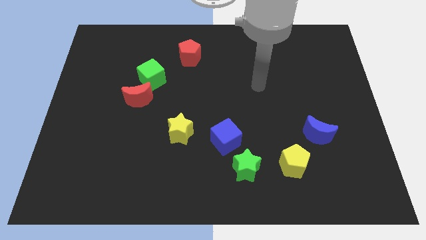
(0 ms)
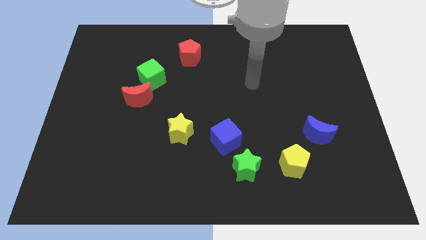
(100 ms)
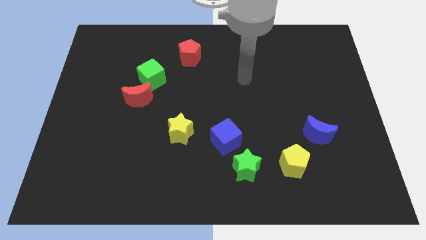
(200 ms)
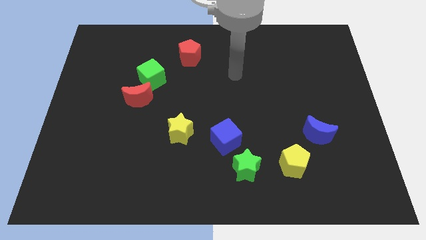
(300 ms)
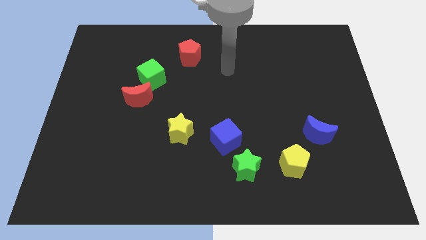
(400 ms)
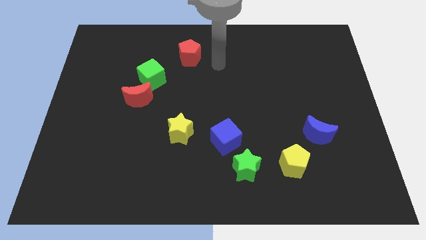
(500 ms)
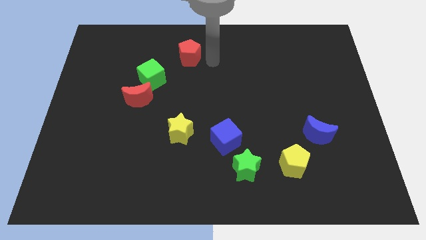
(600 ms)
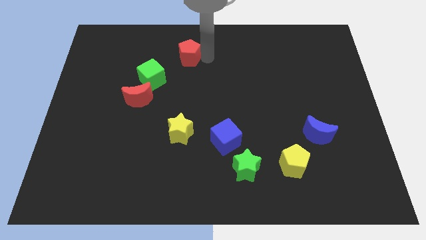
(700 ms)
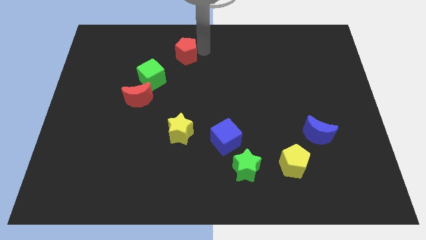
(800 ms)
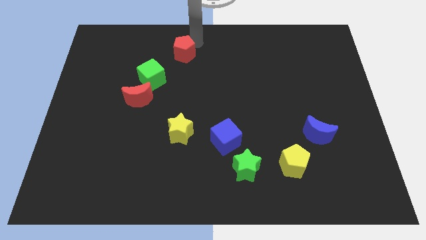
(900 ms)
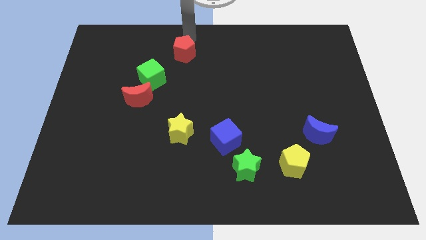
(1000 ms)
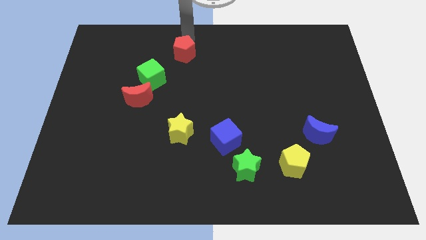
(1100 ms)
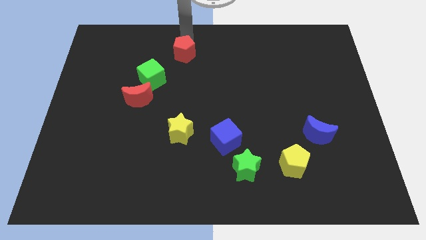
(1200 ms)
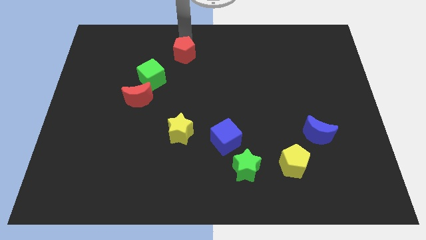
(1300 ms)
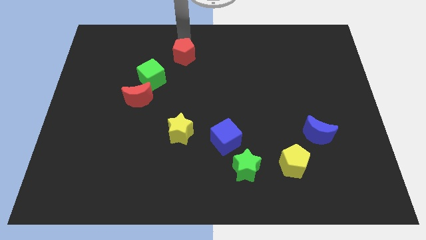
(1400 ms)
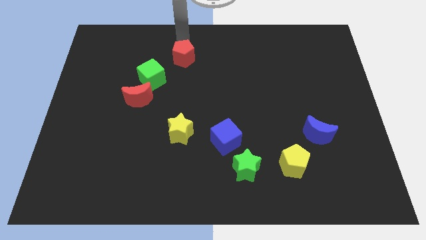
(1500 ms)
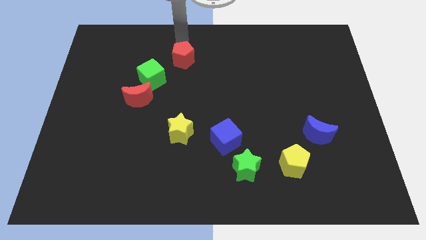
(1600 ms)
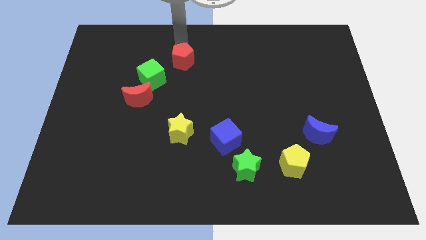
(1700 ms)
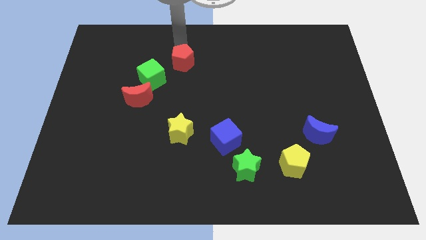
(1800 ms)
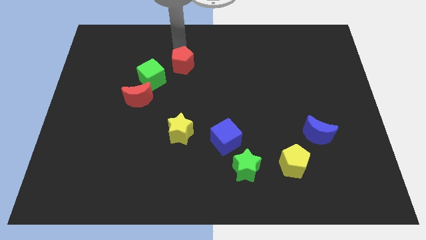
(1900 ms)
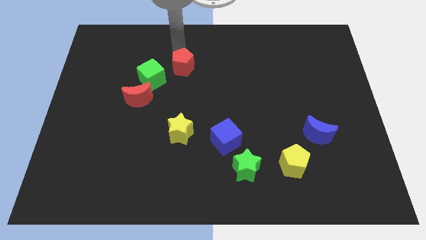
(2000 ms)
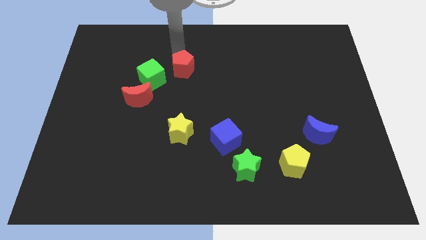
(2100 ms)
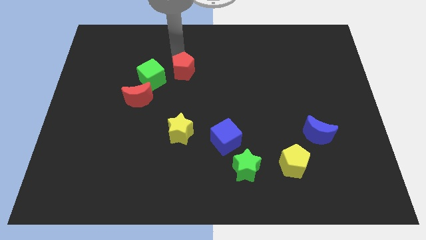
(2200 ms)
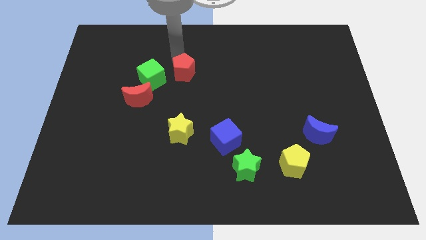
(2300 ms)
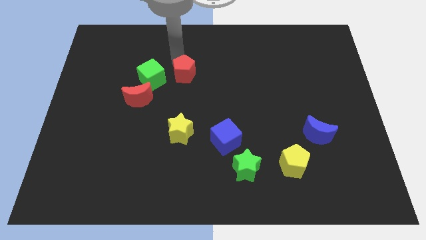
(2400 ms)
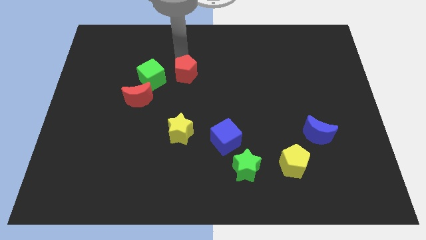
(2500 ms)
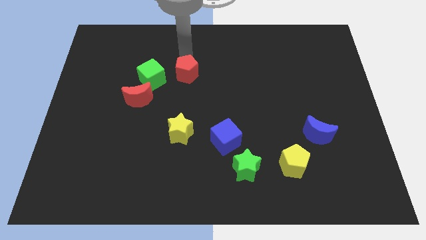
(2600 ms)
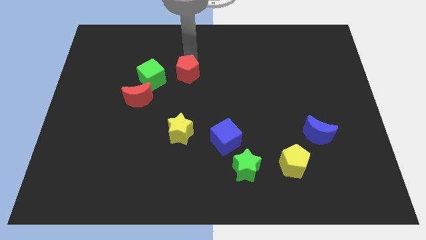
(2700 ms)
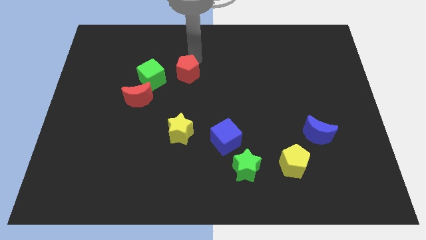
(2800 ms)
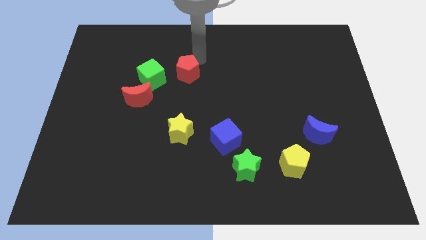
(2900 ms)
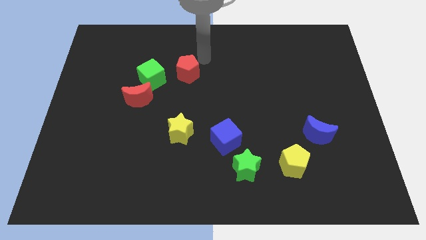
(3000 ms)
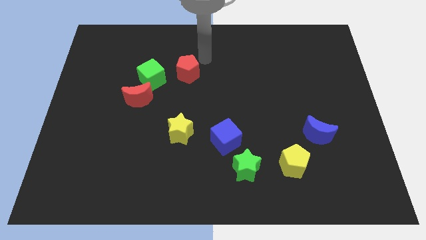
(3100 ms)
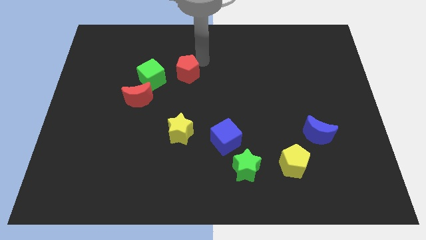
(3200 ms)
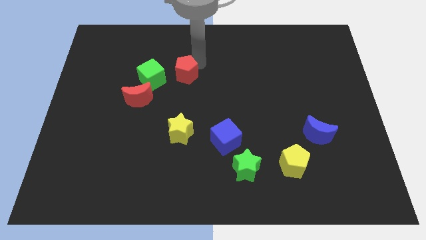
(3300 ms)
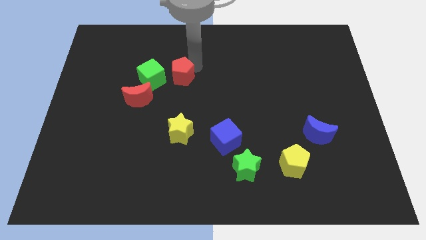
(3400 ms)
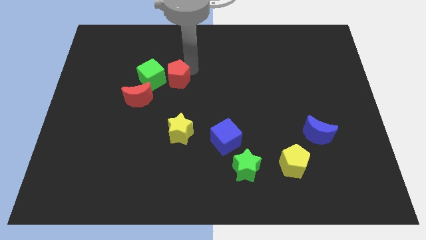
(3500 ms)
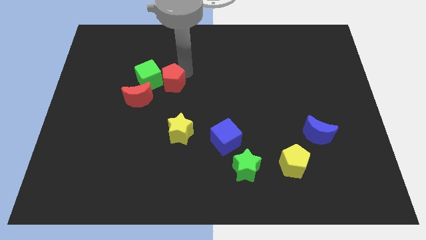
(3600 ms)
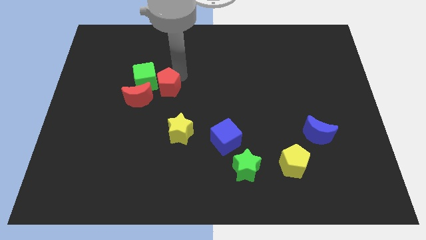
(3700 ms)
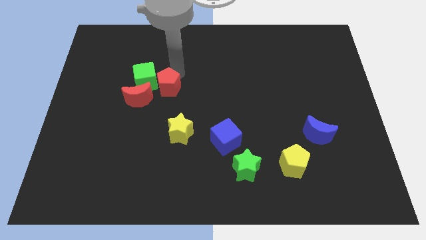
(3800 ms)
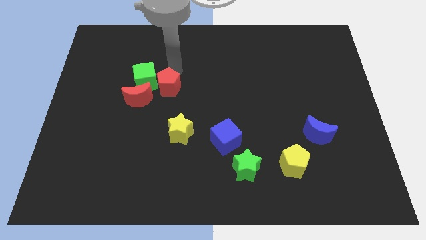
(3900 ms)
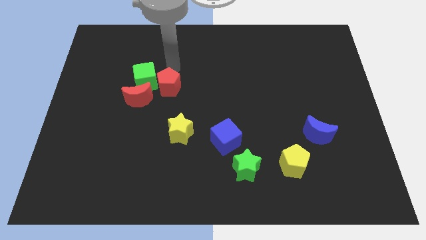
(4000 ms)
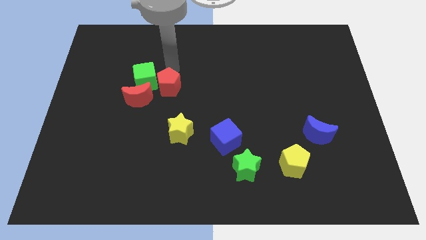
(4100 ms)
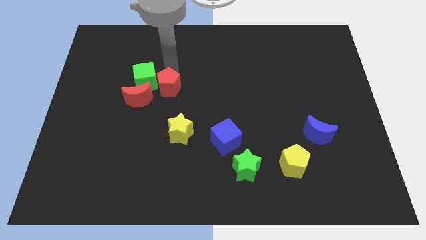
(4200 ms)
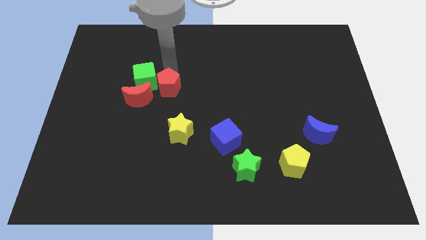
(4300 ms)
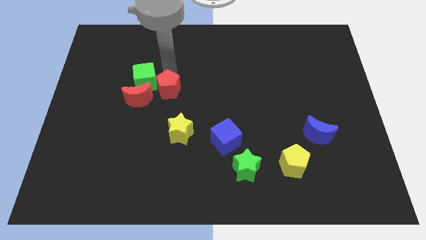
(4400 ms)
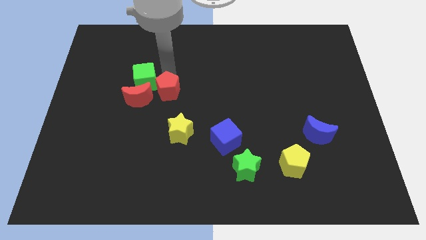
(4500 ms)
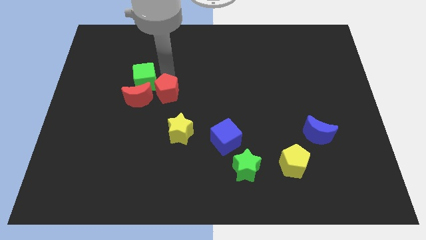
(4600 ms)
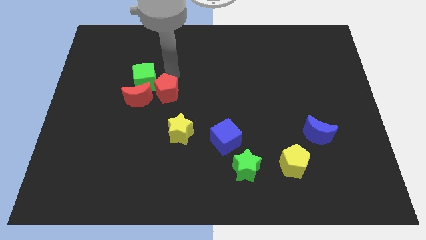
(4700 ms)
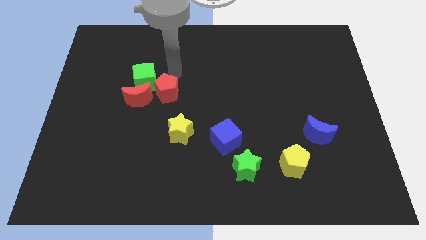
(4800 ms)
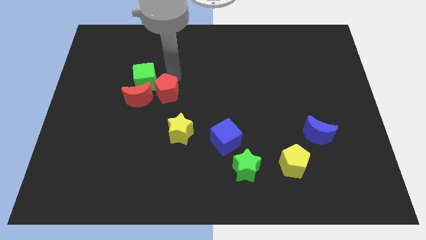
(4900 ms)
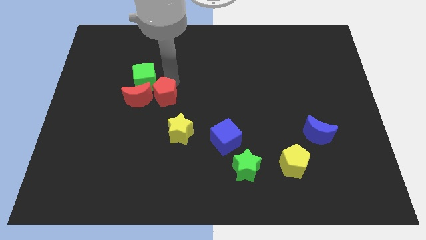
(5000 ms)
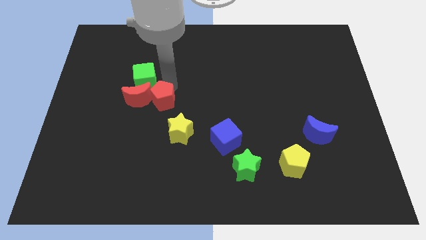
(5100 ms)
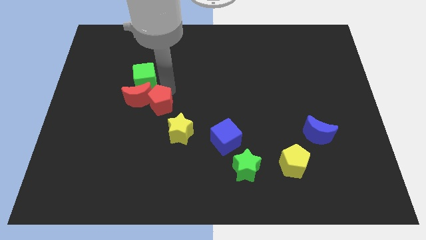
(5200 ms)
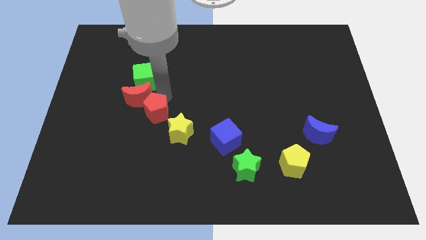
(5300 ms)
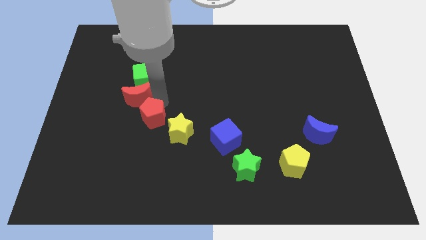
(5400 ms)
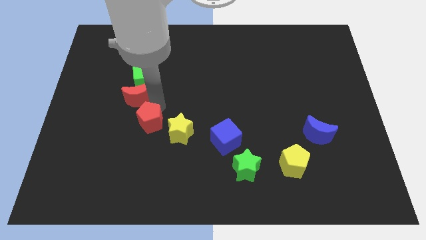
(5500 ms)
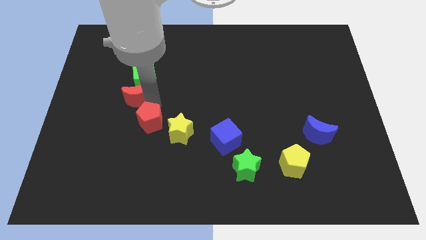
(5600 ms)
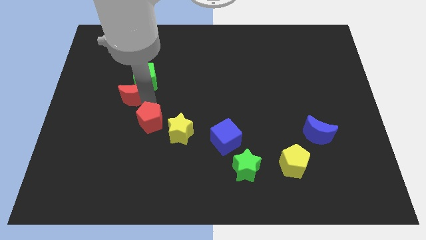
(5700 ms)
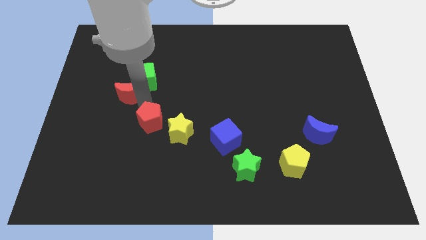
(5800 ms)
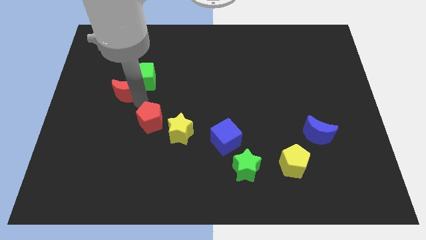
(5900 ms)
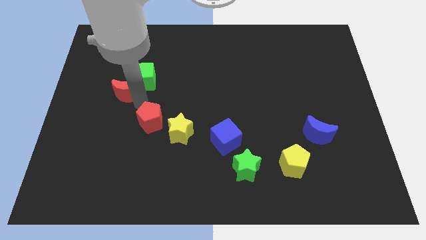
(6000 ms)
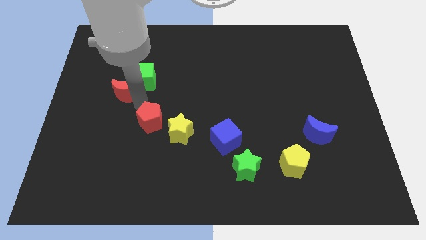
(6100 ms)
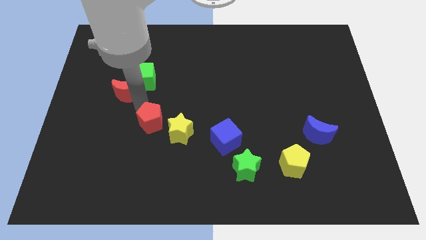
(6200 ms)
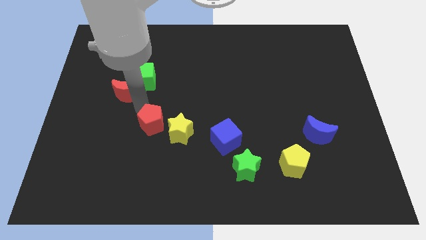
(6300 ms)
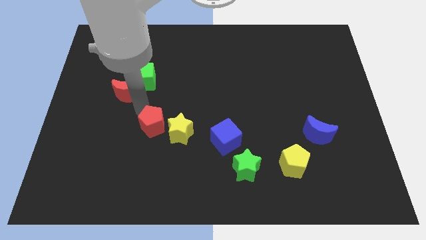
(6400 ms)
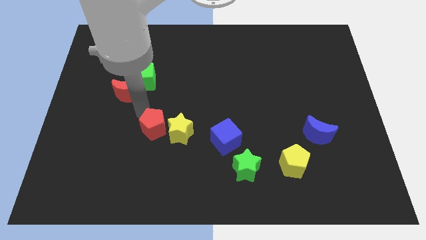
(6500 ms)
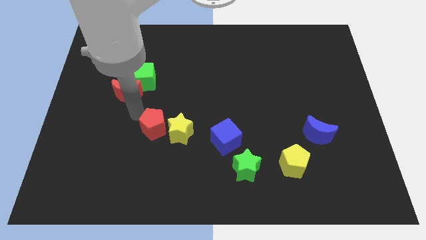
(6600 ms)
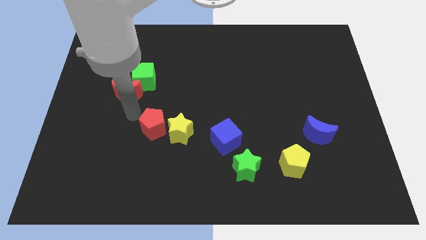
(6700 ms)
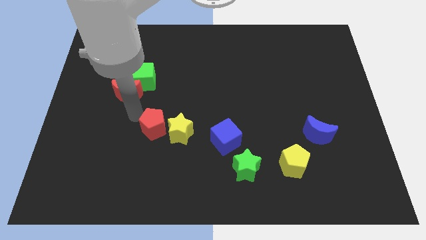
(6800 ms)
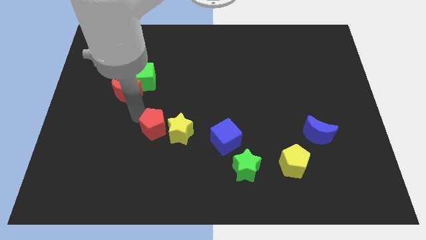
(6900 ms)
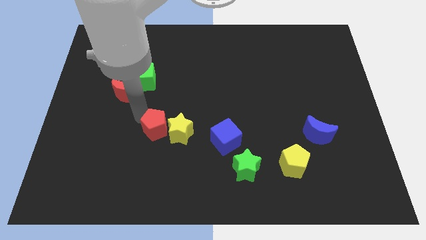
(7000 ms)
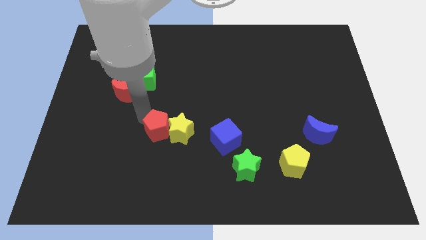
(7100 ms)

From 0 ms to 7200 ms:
slide the red pentagon left of the blue cube
